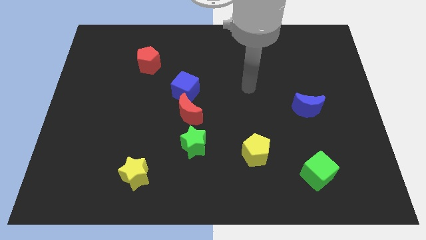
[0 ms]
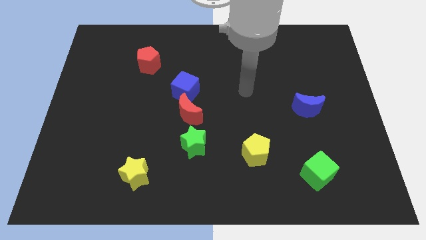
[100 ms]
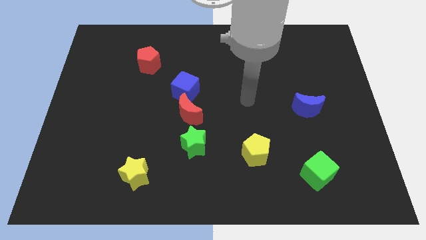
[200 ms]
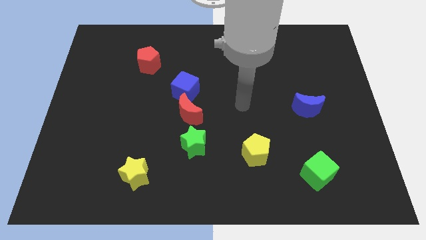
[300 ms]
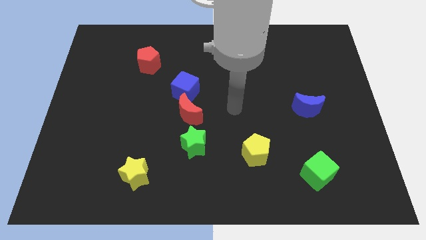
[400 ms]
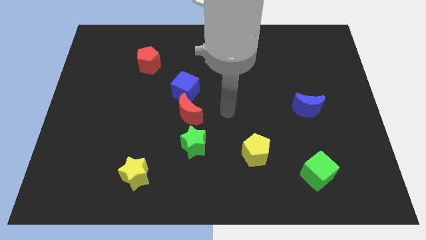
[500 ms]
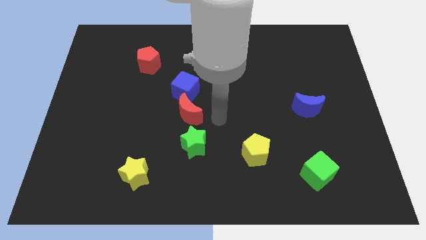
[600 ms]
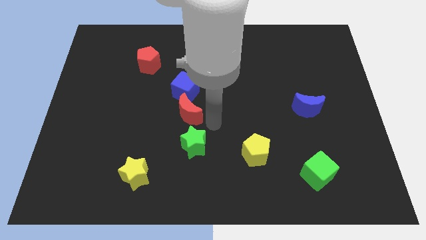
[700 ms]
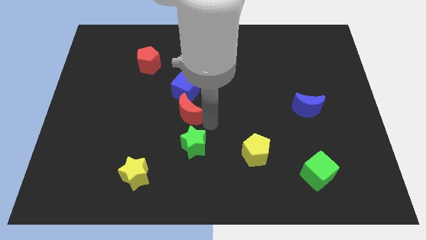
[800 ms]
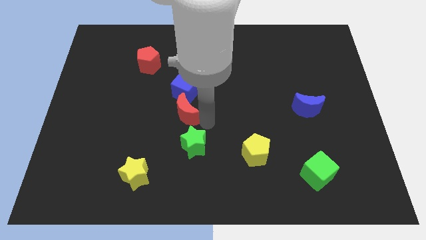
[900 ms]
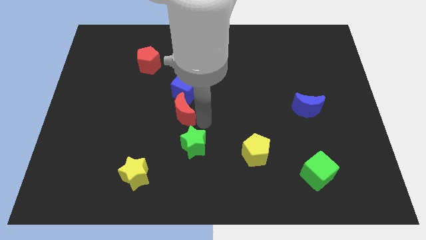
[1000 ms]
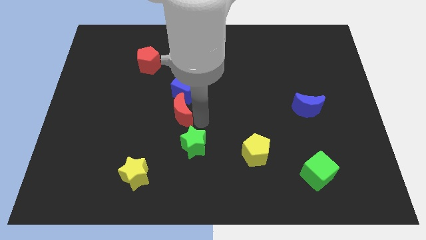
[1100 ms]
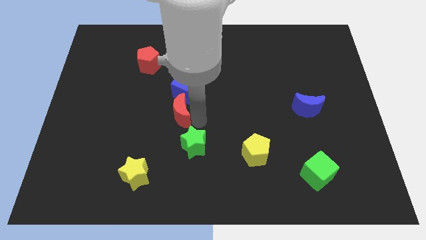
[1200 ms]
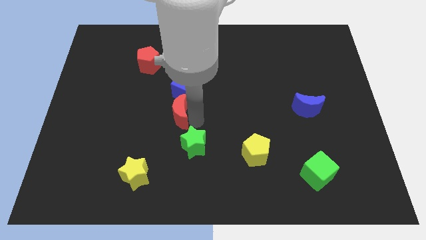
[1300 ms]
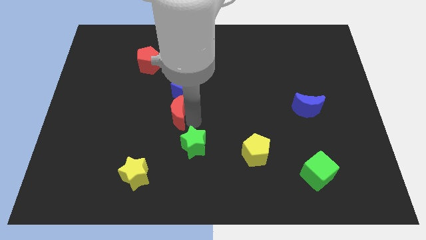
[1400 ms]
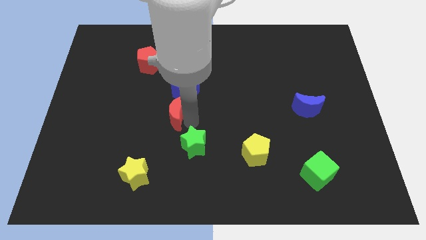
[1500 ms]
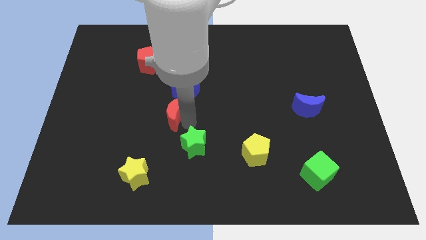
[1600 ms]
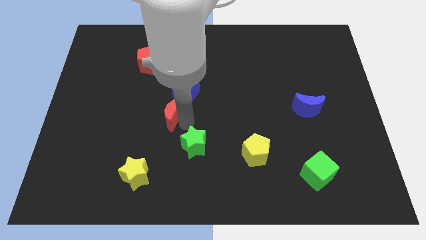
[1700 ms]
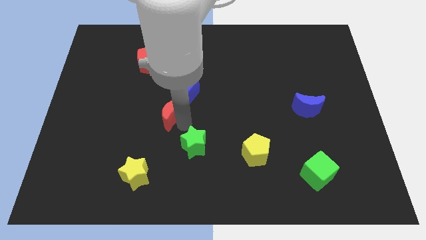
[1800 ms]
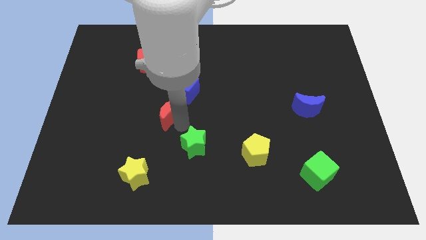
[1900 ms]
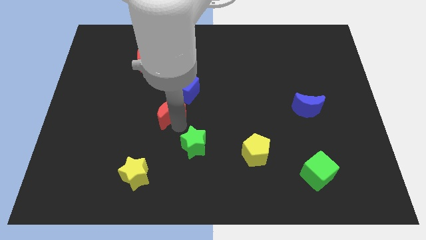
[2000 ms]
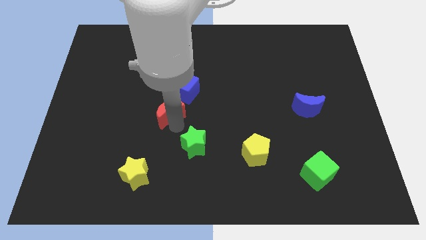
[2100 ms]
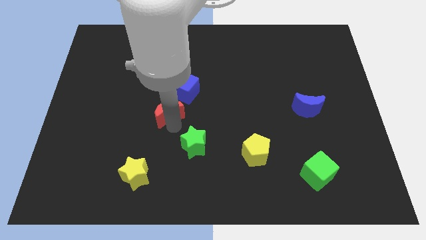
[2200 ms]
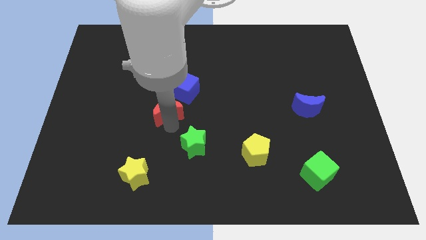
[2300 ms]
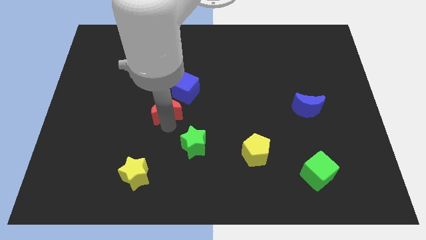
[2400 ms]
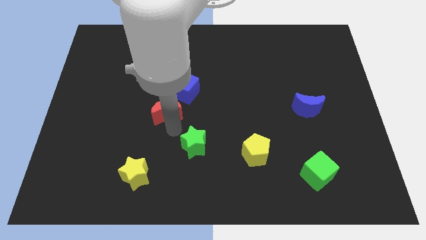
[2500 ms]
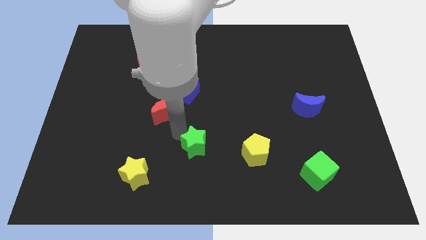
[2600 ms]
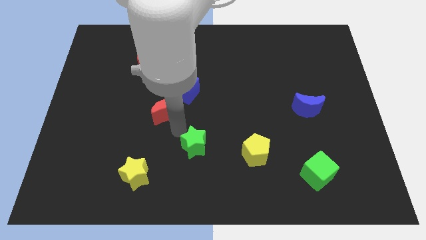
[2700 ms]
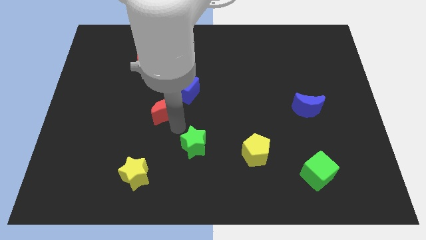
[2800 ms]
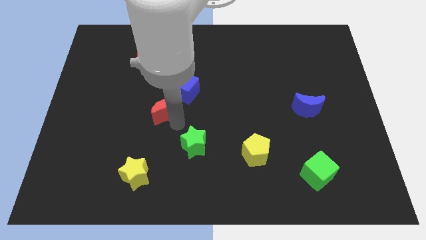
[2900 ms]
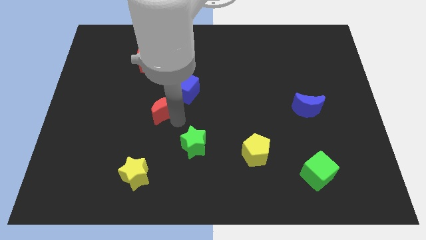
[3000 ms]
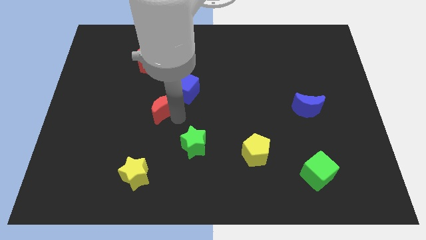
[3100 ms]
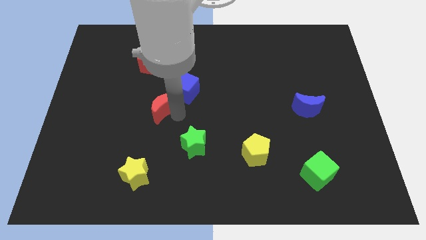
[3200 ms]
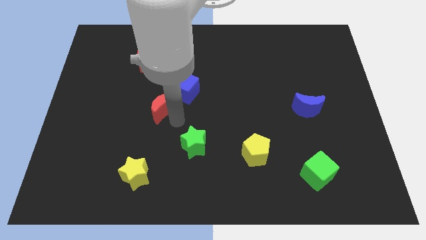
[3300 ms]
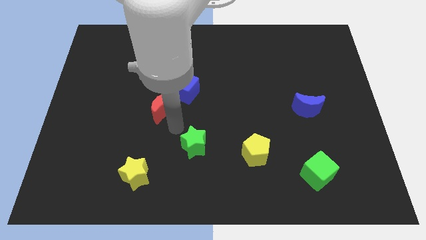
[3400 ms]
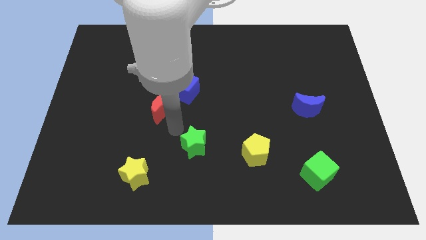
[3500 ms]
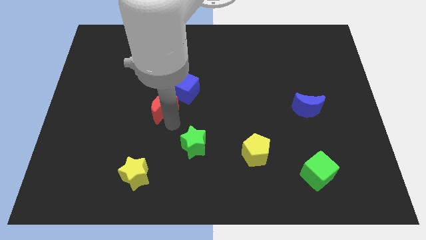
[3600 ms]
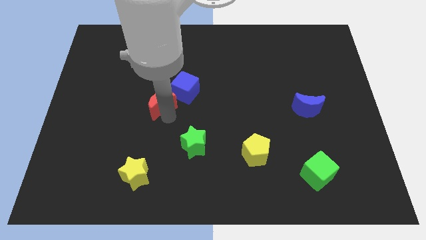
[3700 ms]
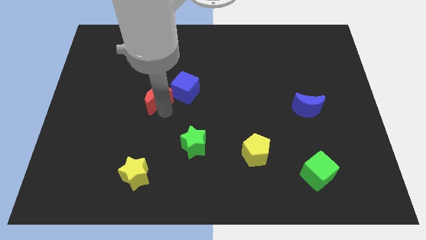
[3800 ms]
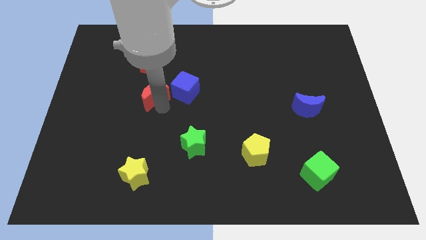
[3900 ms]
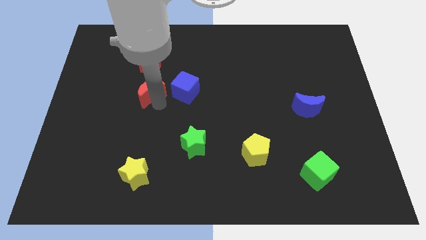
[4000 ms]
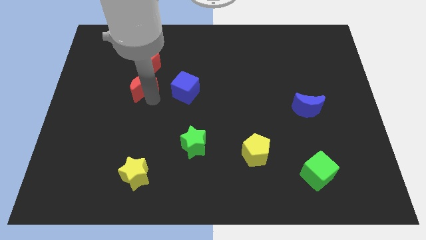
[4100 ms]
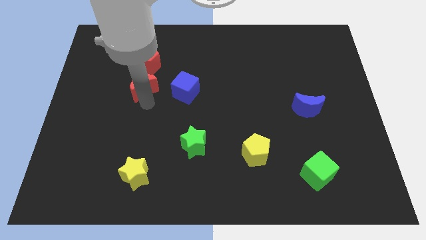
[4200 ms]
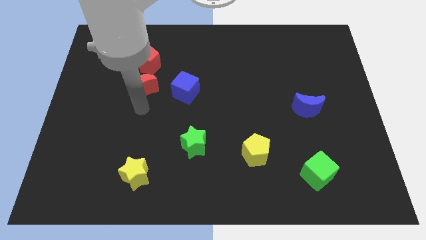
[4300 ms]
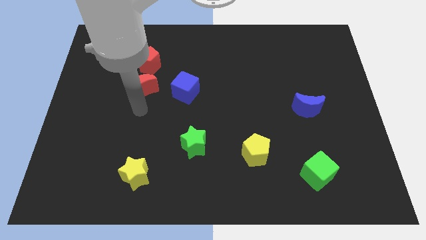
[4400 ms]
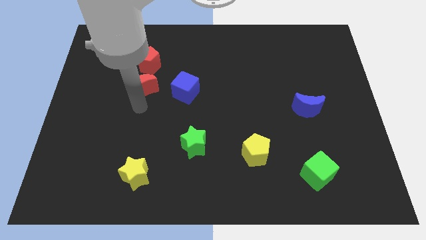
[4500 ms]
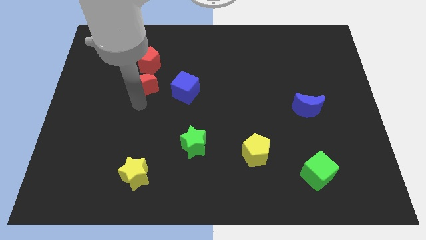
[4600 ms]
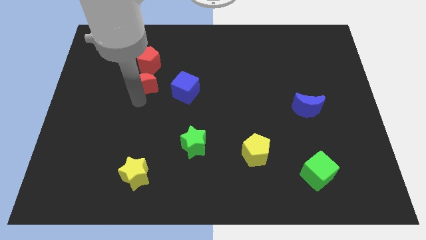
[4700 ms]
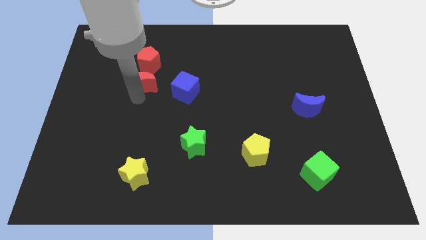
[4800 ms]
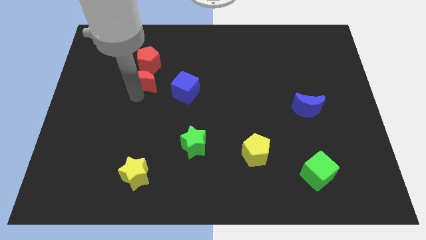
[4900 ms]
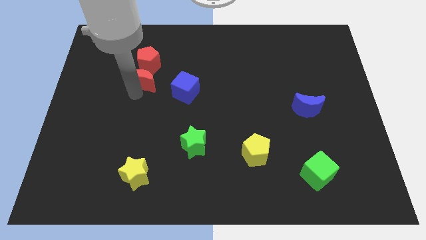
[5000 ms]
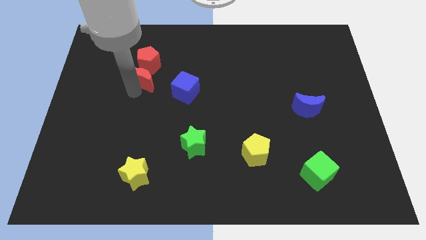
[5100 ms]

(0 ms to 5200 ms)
push the red moon towards the red pentagon

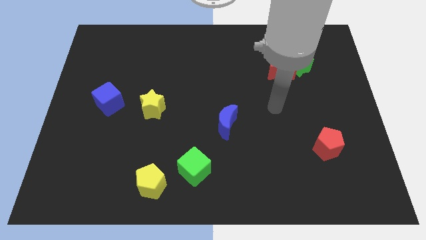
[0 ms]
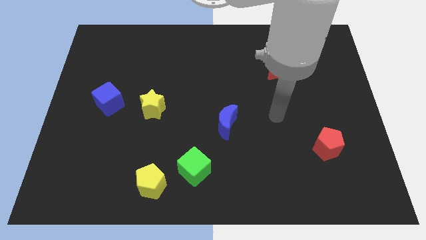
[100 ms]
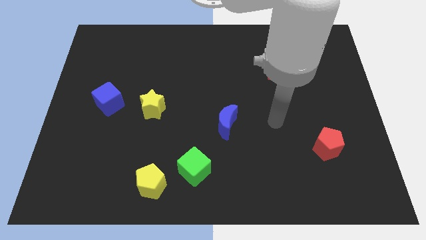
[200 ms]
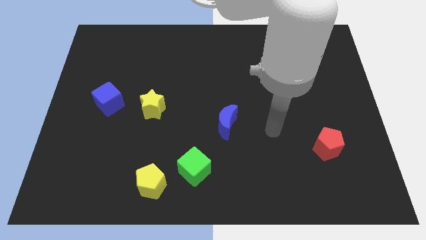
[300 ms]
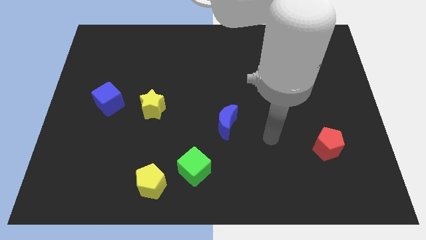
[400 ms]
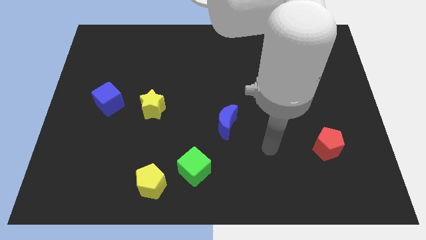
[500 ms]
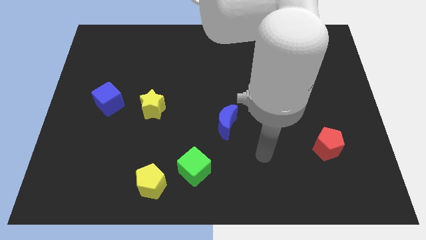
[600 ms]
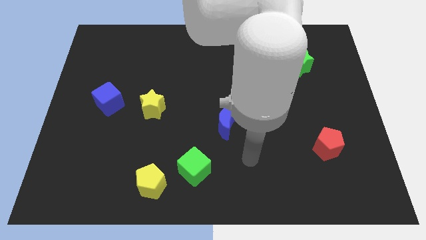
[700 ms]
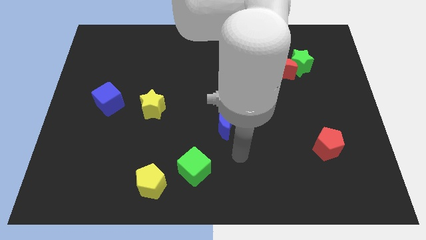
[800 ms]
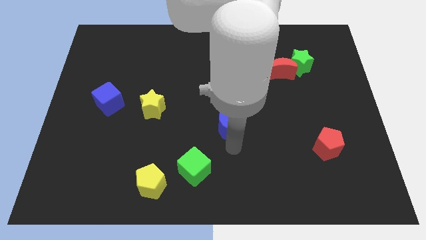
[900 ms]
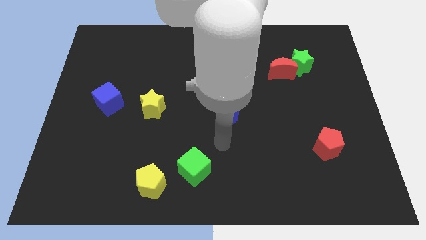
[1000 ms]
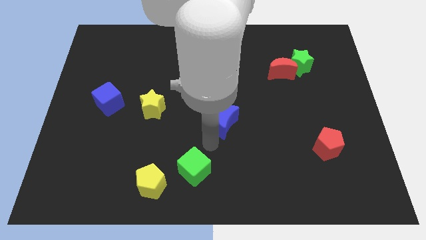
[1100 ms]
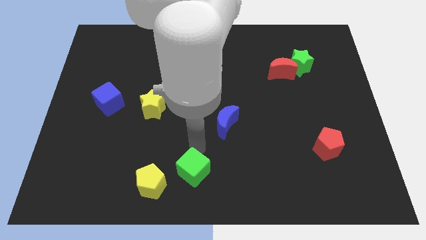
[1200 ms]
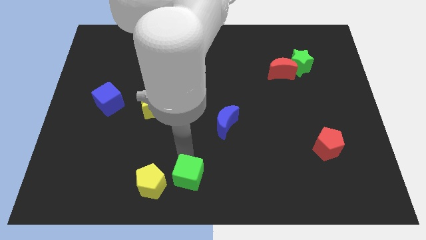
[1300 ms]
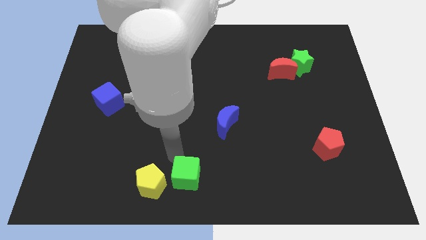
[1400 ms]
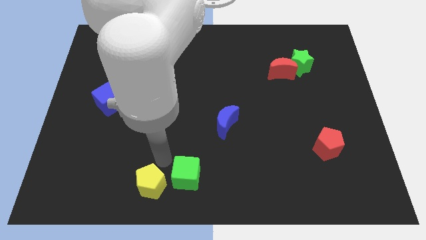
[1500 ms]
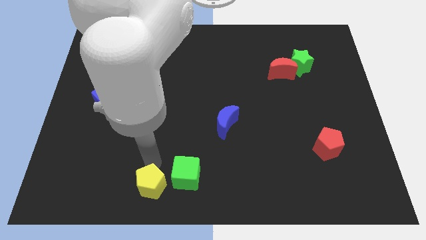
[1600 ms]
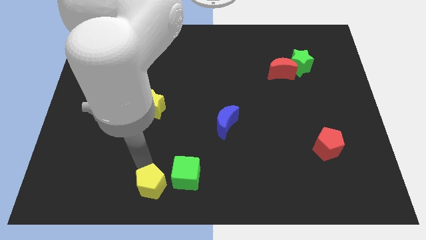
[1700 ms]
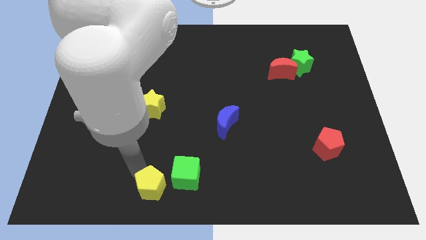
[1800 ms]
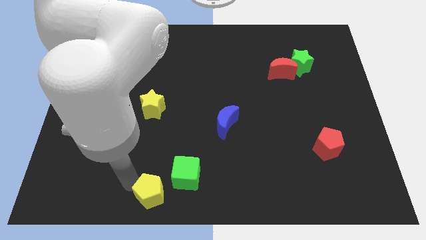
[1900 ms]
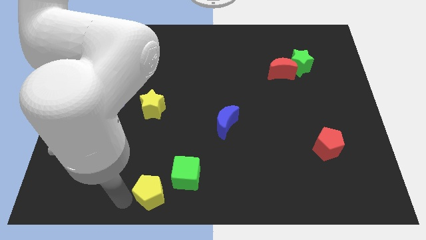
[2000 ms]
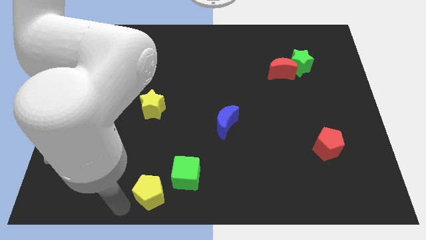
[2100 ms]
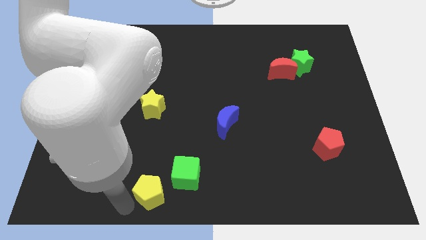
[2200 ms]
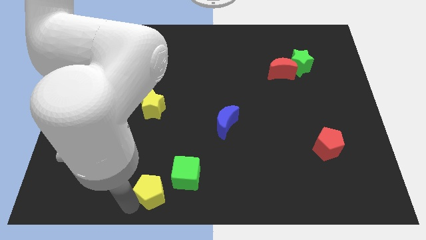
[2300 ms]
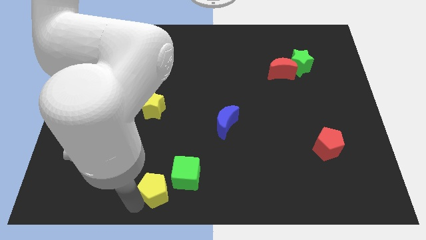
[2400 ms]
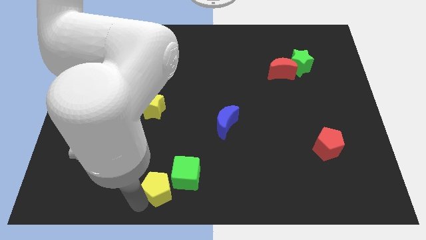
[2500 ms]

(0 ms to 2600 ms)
move the yellow pentagon to the green cube
